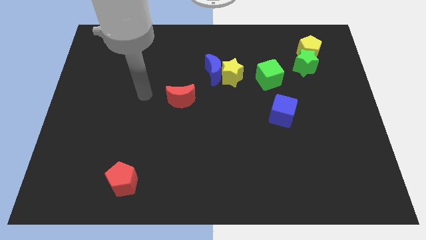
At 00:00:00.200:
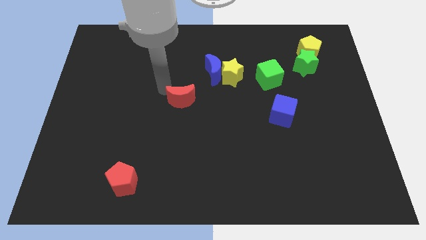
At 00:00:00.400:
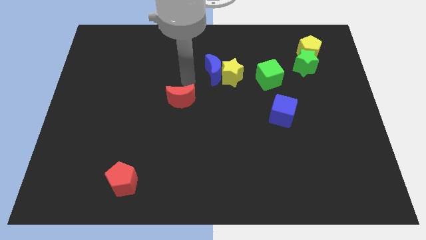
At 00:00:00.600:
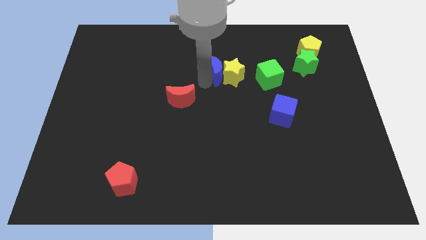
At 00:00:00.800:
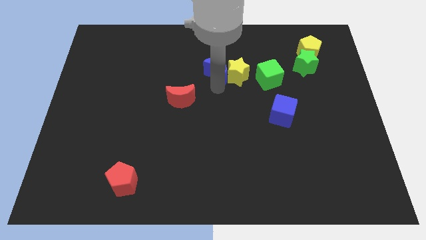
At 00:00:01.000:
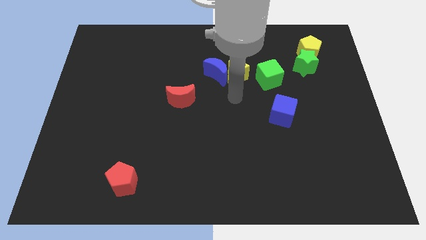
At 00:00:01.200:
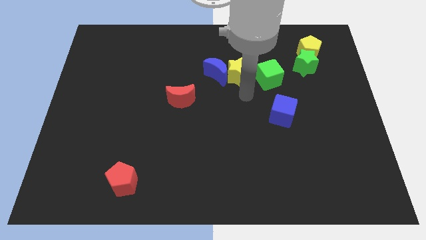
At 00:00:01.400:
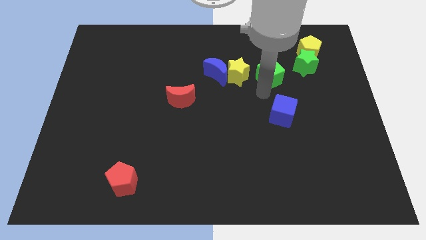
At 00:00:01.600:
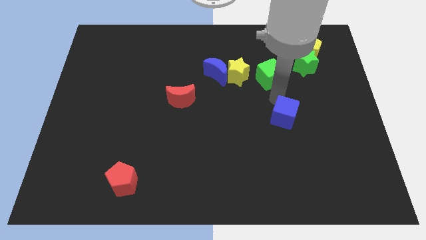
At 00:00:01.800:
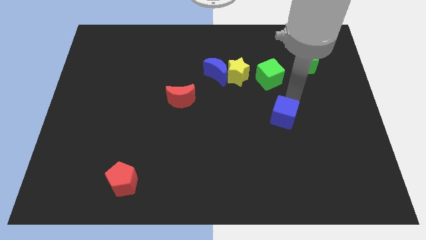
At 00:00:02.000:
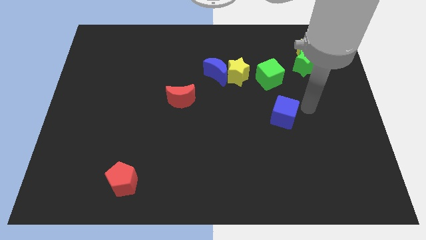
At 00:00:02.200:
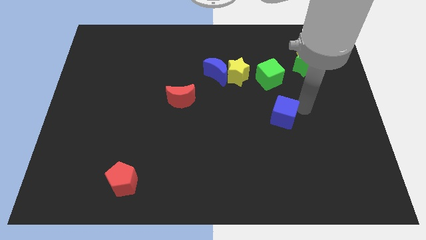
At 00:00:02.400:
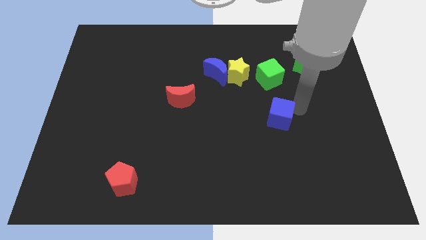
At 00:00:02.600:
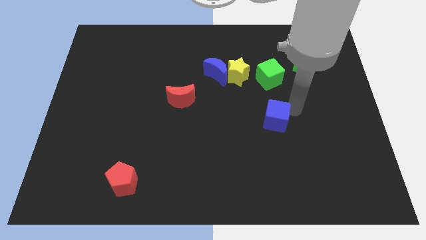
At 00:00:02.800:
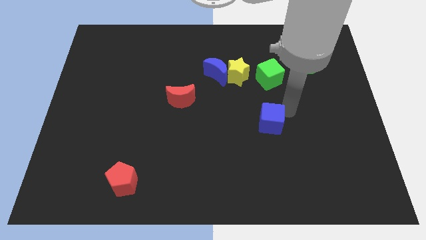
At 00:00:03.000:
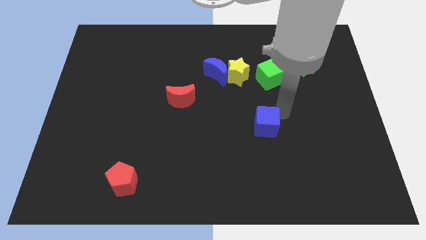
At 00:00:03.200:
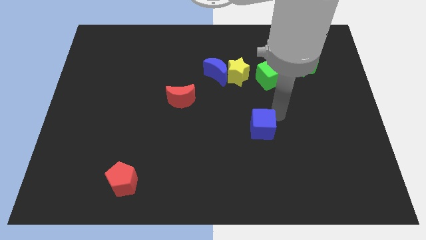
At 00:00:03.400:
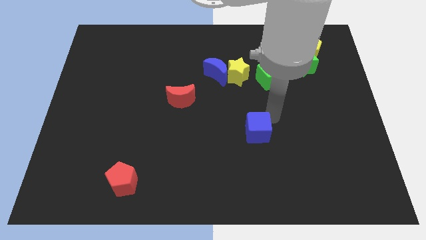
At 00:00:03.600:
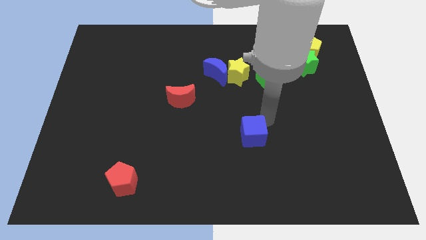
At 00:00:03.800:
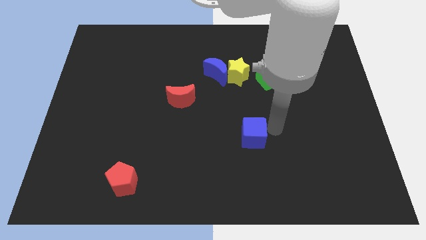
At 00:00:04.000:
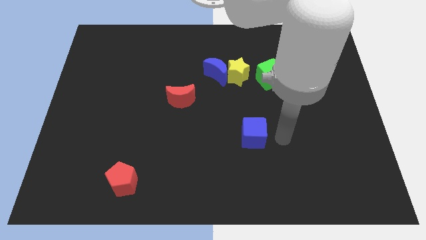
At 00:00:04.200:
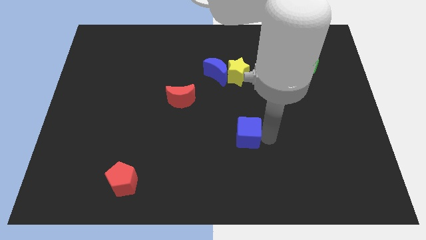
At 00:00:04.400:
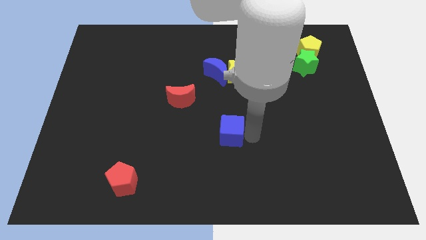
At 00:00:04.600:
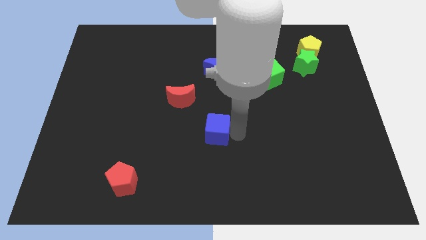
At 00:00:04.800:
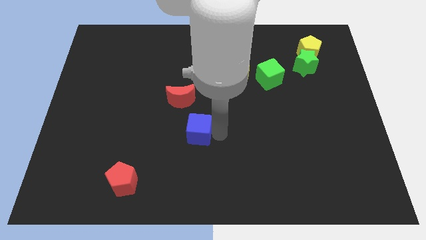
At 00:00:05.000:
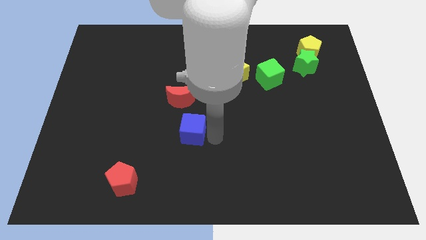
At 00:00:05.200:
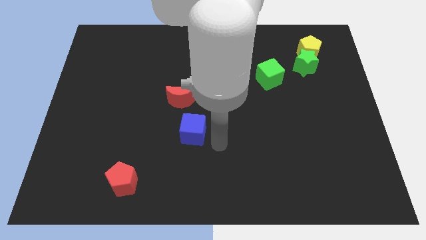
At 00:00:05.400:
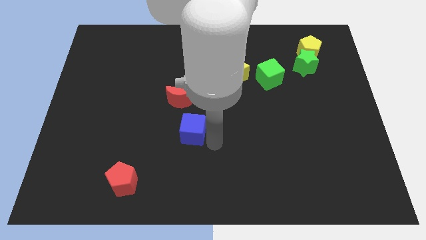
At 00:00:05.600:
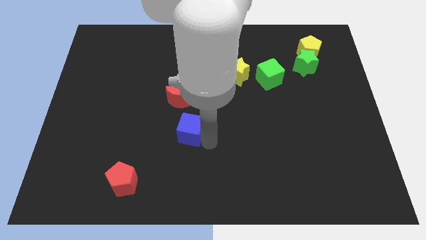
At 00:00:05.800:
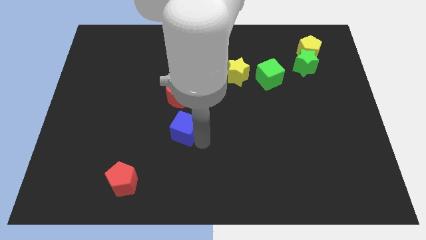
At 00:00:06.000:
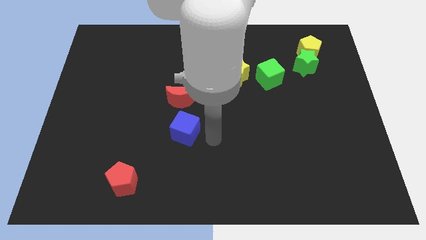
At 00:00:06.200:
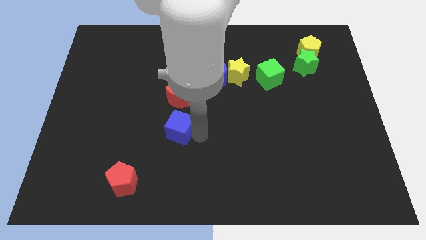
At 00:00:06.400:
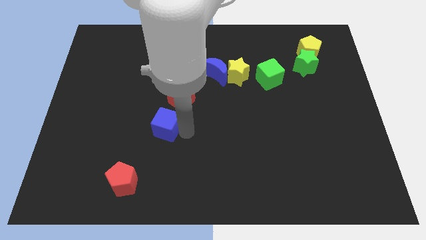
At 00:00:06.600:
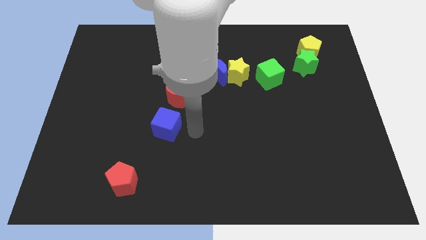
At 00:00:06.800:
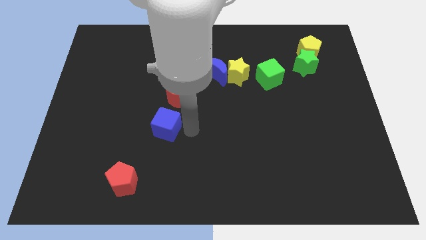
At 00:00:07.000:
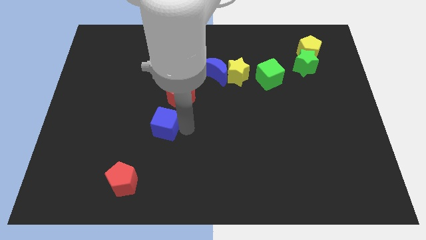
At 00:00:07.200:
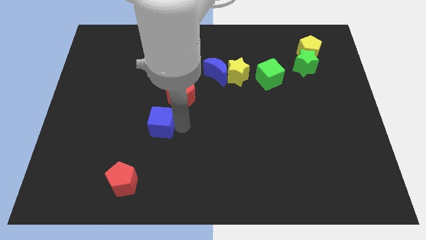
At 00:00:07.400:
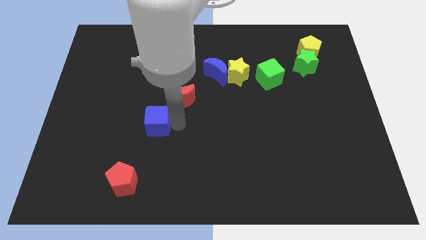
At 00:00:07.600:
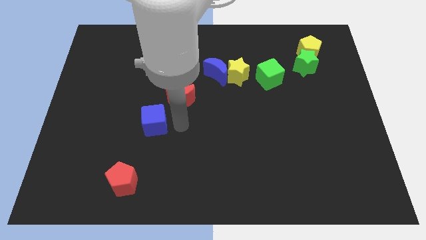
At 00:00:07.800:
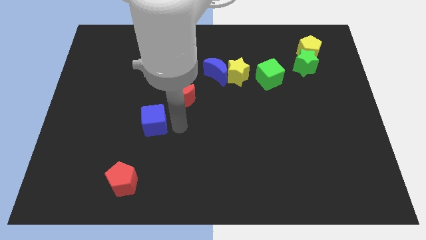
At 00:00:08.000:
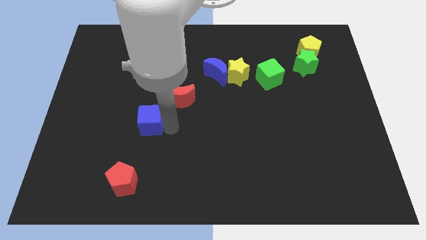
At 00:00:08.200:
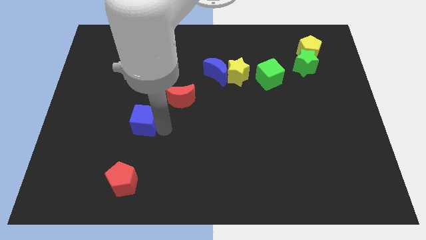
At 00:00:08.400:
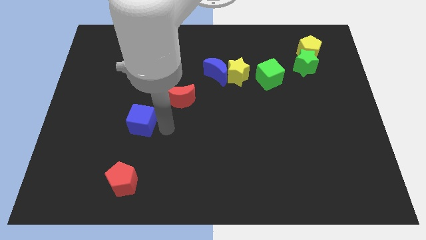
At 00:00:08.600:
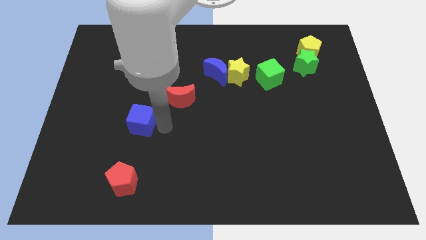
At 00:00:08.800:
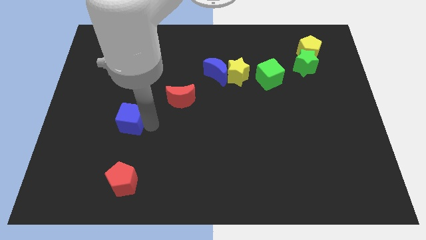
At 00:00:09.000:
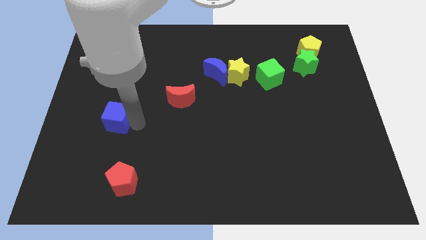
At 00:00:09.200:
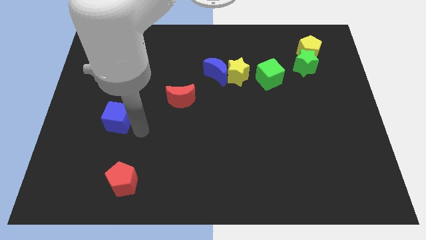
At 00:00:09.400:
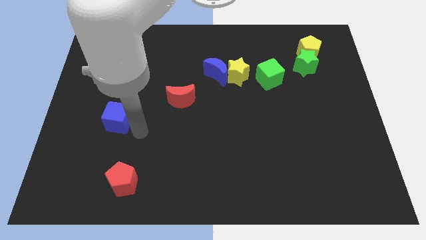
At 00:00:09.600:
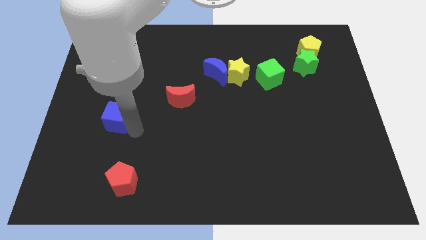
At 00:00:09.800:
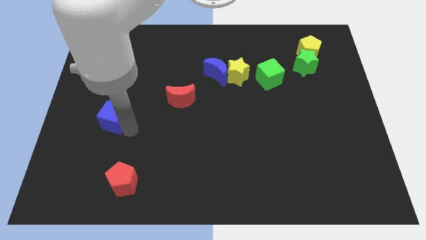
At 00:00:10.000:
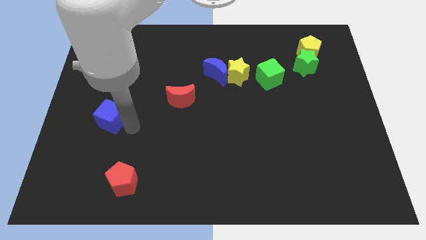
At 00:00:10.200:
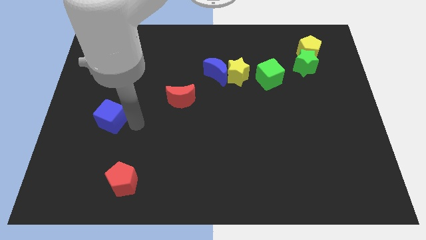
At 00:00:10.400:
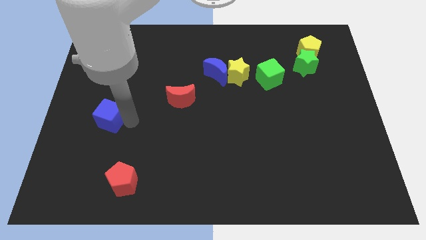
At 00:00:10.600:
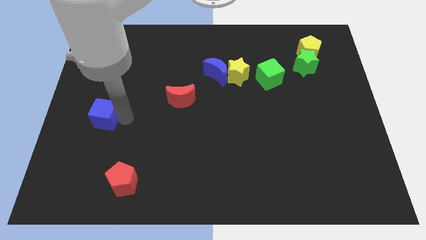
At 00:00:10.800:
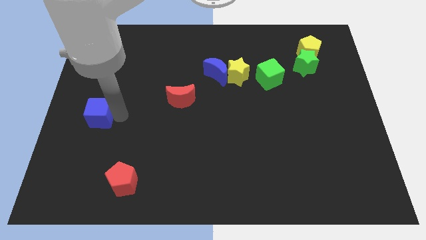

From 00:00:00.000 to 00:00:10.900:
push the blue cube to the left side of the board

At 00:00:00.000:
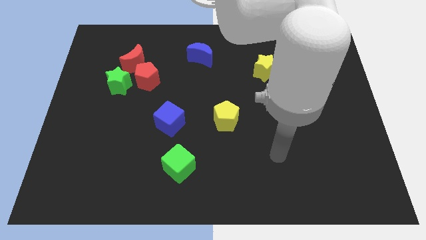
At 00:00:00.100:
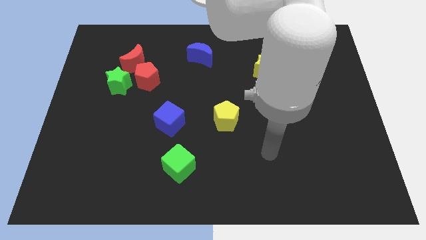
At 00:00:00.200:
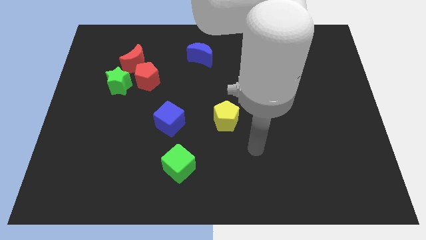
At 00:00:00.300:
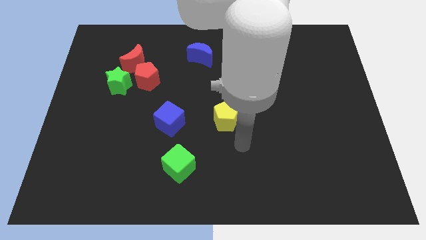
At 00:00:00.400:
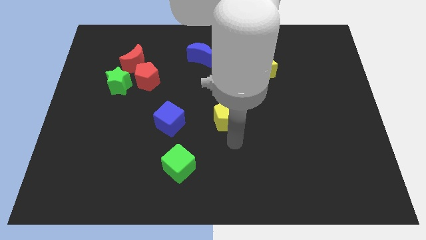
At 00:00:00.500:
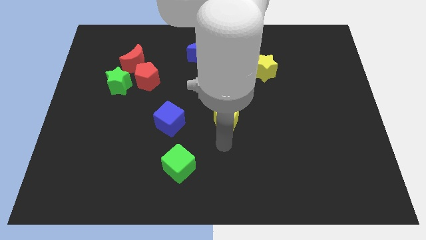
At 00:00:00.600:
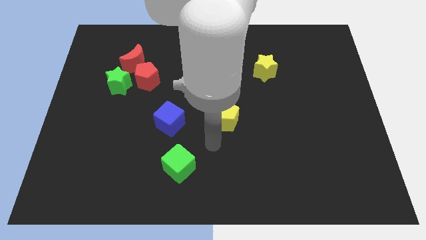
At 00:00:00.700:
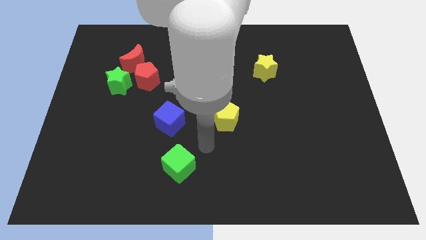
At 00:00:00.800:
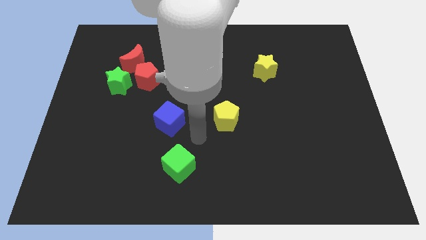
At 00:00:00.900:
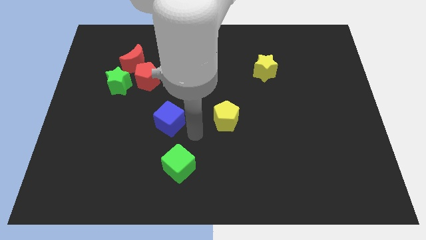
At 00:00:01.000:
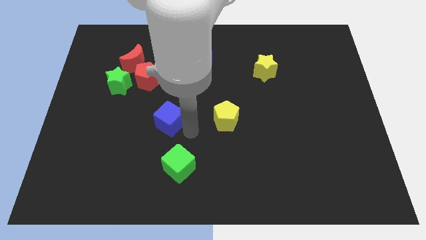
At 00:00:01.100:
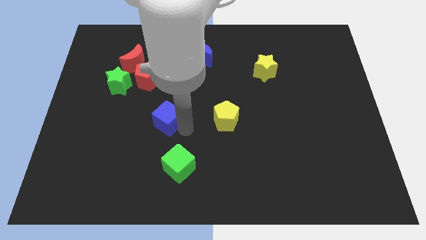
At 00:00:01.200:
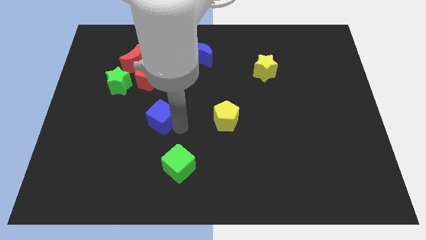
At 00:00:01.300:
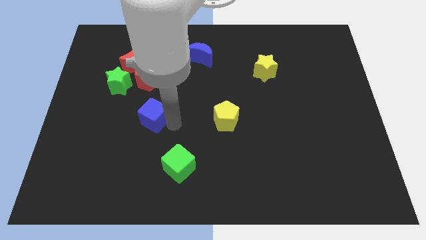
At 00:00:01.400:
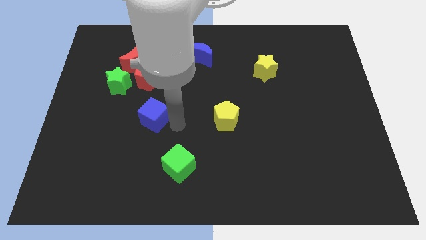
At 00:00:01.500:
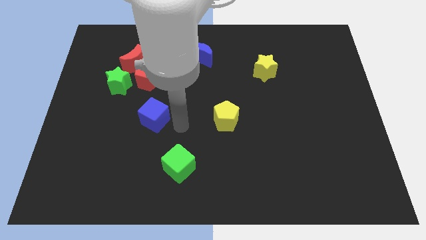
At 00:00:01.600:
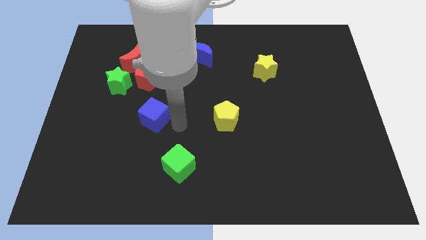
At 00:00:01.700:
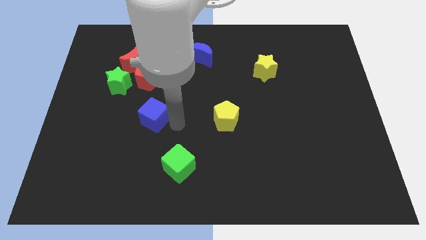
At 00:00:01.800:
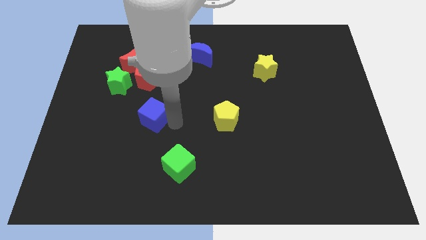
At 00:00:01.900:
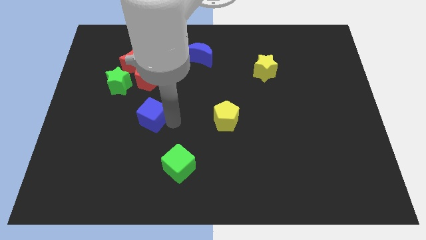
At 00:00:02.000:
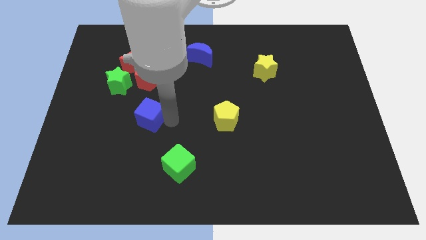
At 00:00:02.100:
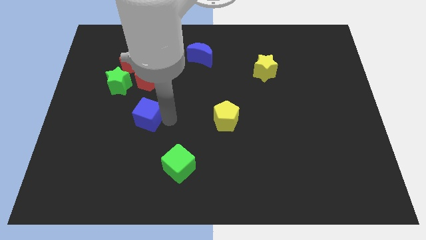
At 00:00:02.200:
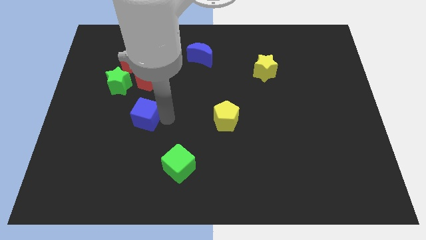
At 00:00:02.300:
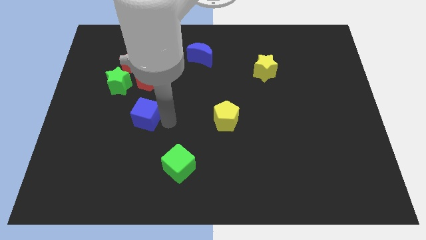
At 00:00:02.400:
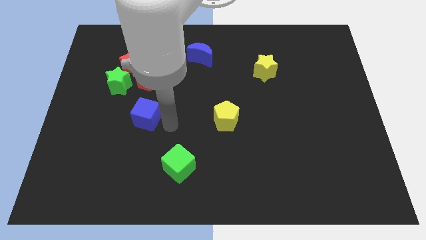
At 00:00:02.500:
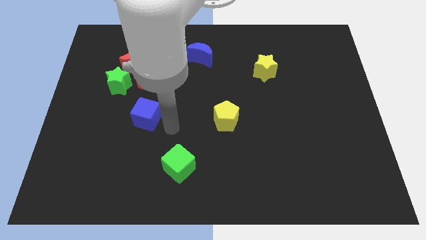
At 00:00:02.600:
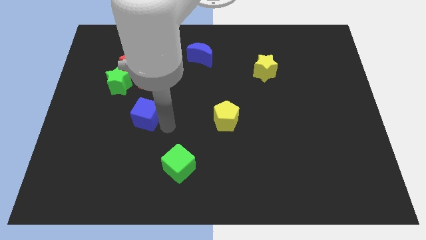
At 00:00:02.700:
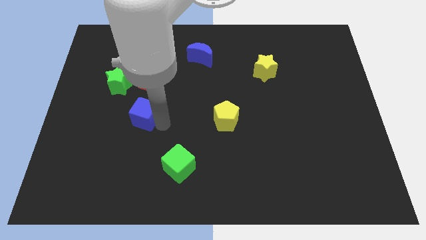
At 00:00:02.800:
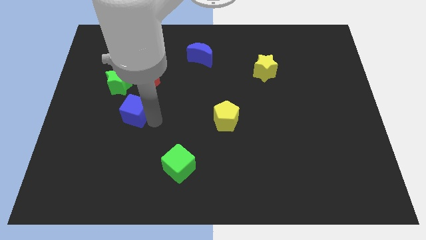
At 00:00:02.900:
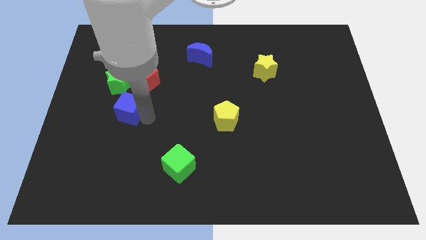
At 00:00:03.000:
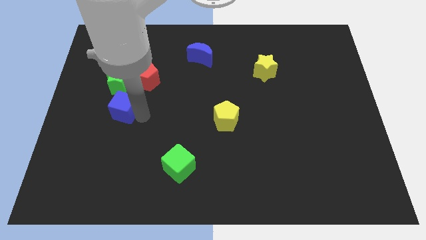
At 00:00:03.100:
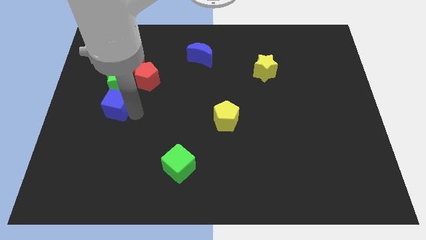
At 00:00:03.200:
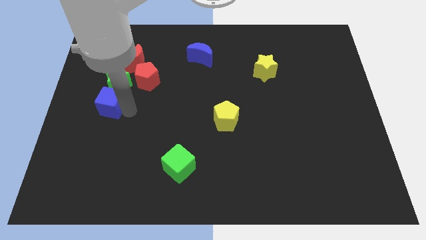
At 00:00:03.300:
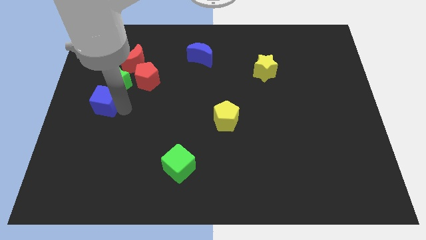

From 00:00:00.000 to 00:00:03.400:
move the blue cube to the left side
